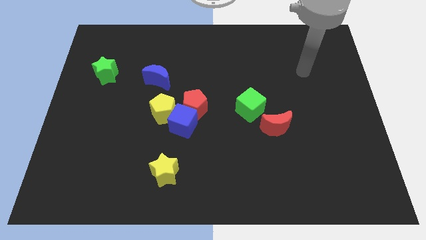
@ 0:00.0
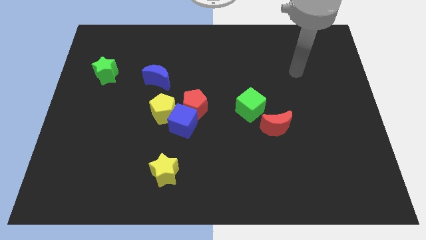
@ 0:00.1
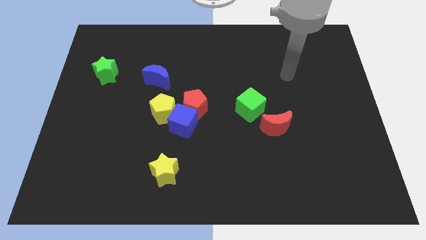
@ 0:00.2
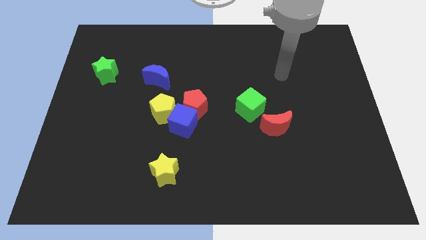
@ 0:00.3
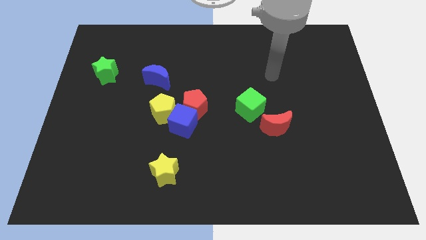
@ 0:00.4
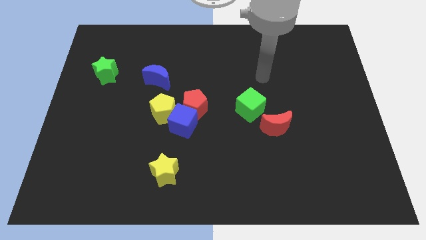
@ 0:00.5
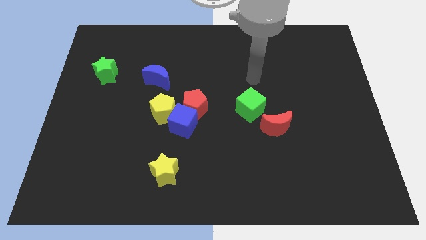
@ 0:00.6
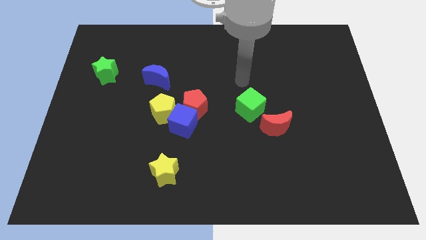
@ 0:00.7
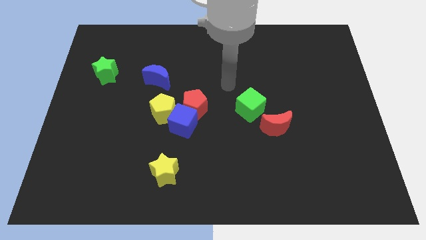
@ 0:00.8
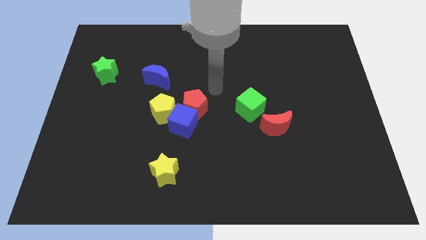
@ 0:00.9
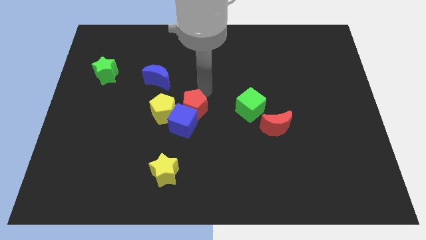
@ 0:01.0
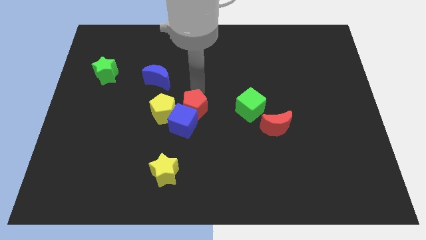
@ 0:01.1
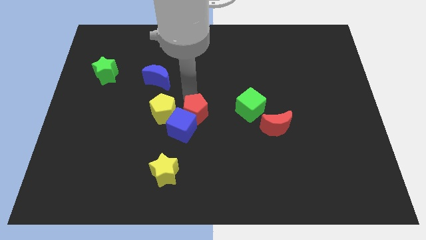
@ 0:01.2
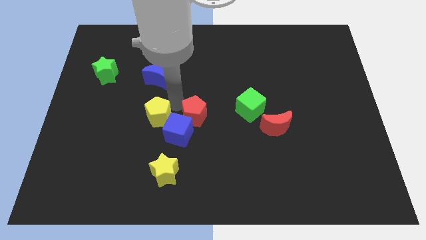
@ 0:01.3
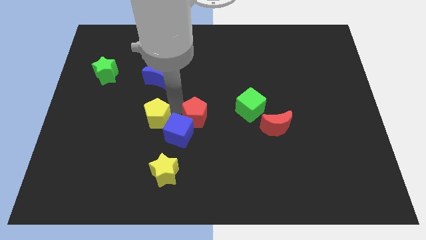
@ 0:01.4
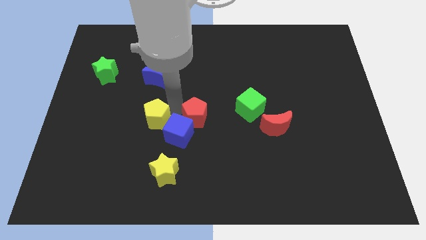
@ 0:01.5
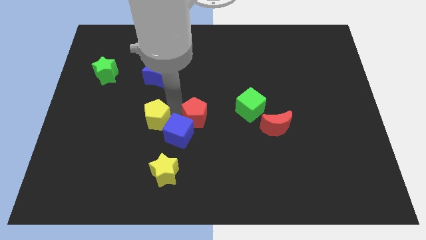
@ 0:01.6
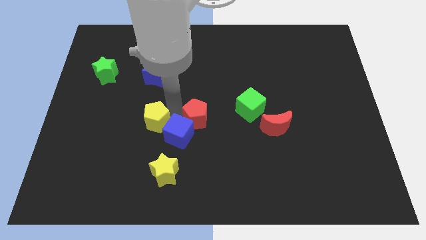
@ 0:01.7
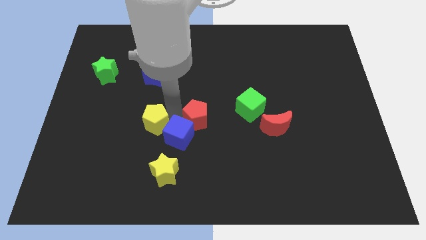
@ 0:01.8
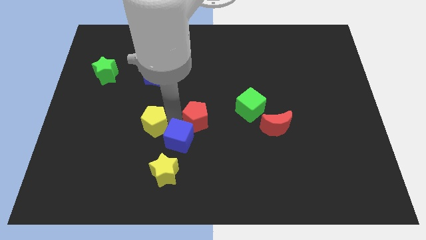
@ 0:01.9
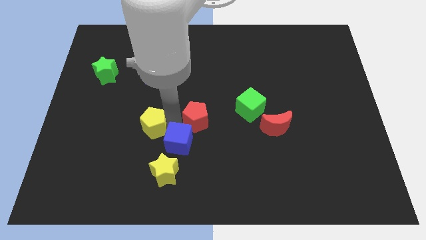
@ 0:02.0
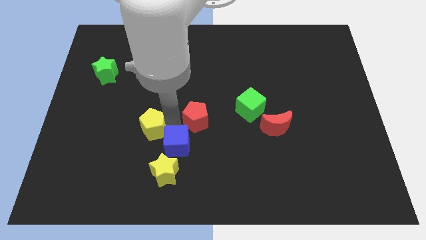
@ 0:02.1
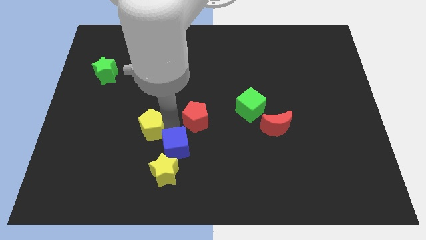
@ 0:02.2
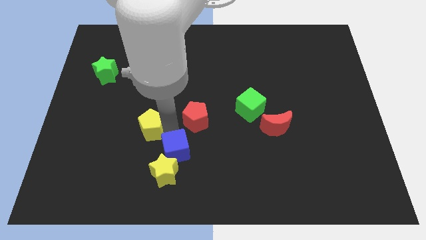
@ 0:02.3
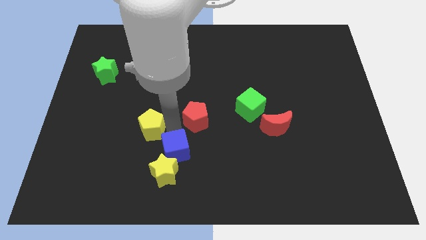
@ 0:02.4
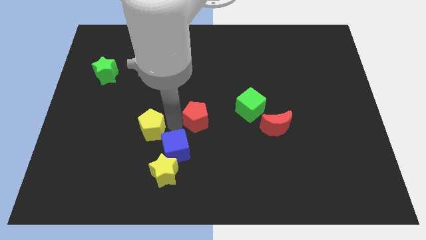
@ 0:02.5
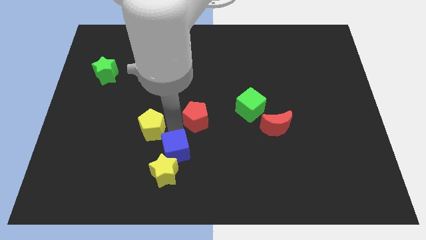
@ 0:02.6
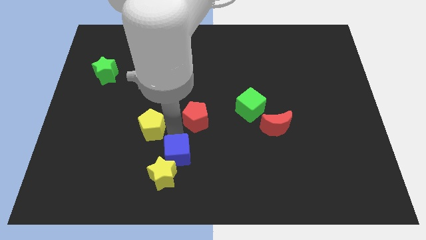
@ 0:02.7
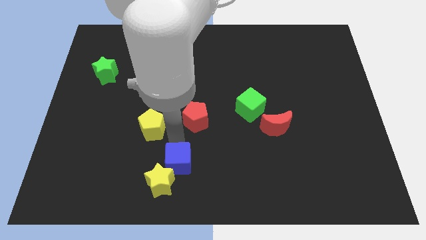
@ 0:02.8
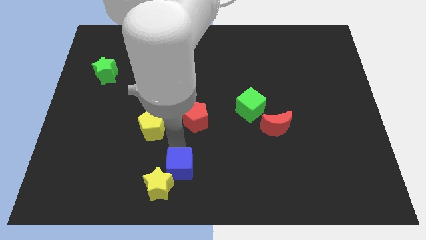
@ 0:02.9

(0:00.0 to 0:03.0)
pull the blue cube apart from the red pentagon and yellow pentagon

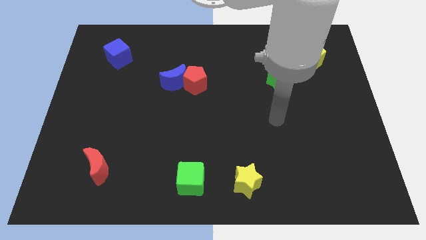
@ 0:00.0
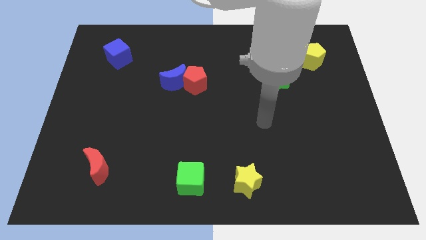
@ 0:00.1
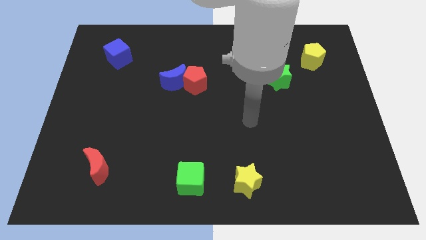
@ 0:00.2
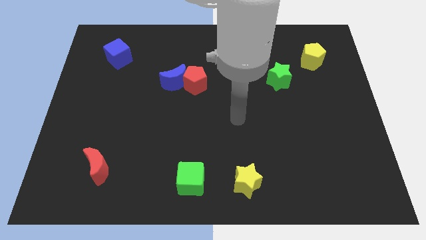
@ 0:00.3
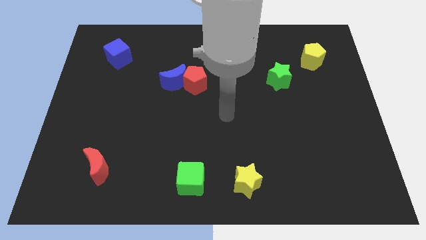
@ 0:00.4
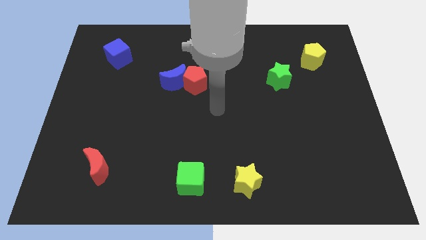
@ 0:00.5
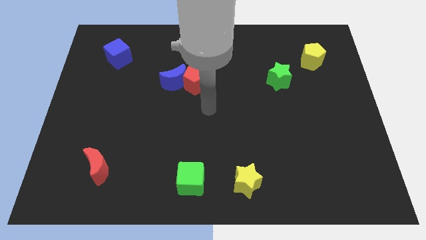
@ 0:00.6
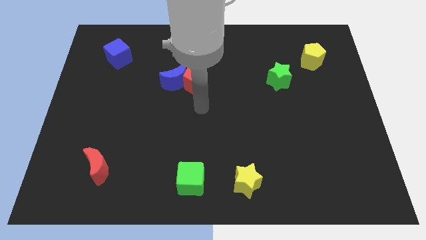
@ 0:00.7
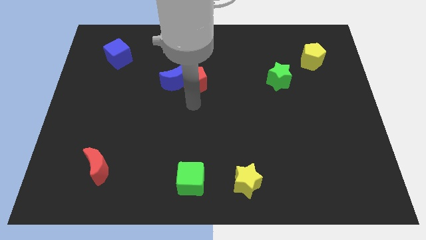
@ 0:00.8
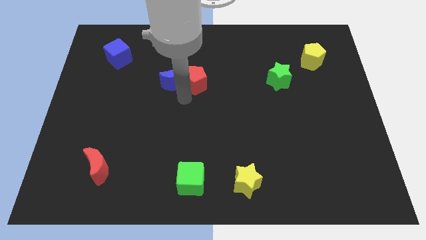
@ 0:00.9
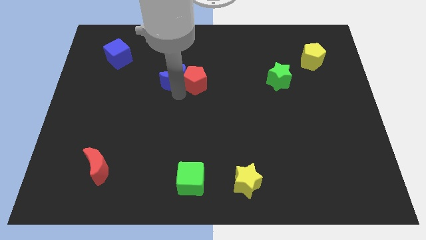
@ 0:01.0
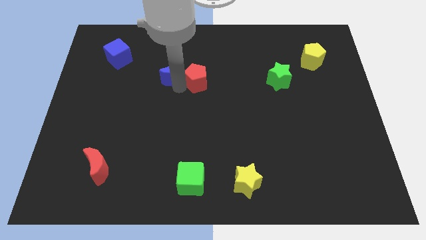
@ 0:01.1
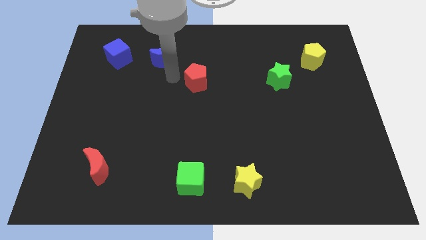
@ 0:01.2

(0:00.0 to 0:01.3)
separate the red pentagon from the blue moon

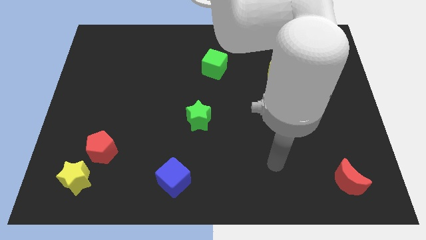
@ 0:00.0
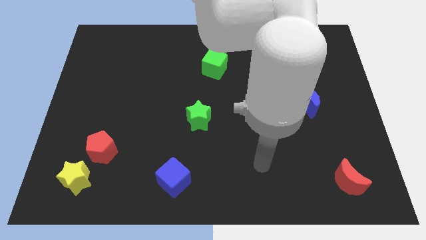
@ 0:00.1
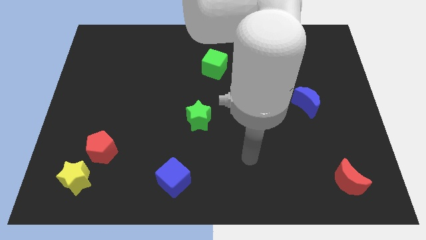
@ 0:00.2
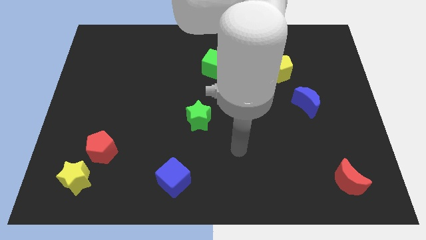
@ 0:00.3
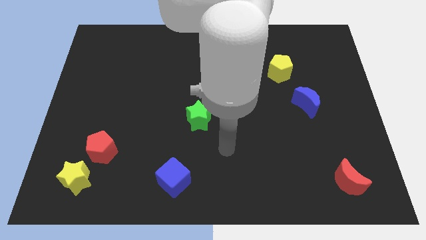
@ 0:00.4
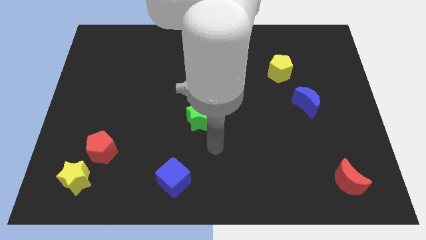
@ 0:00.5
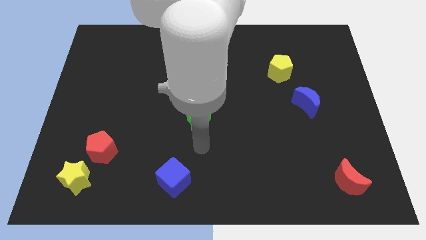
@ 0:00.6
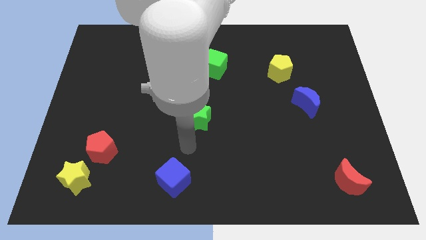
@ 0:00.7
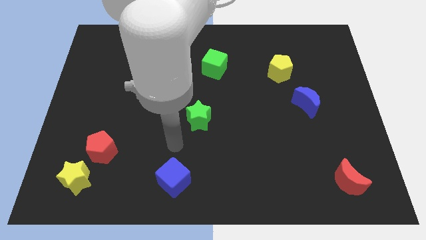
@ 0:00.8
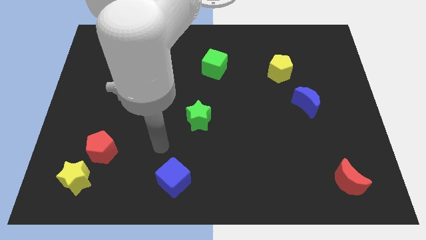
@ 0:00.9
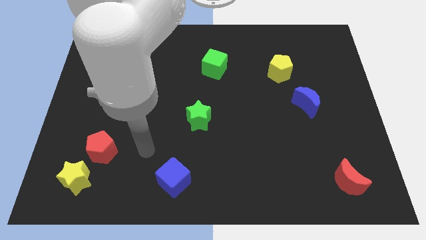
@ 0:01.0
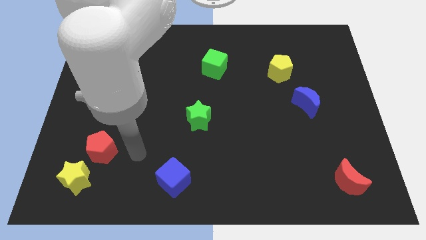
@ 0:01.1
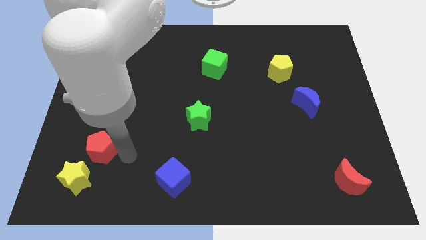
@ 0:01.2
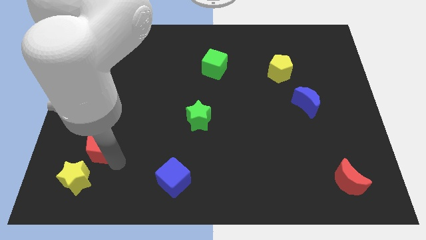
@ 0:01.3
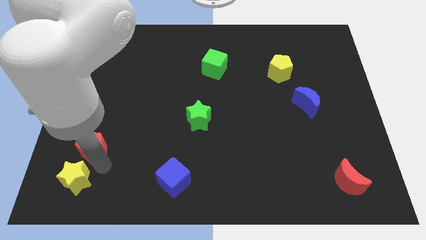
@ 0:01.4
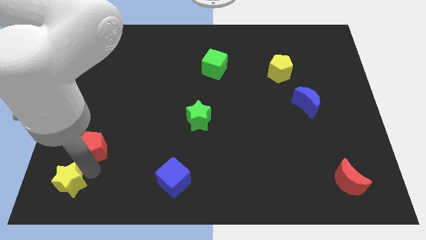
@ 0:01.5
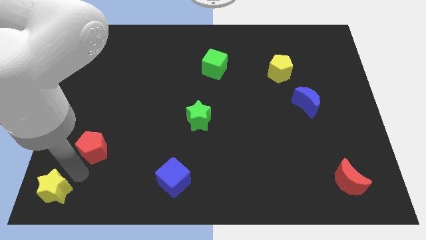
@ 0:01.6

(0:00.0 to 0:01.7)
move the red pentagon away from the yellow star

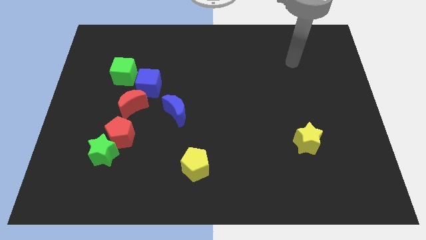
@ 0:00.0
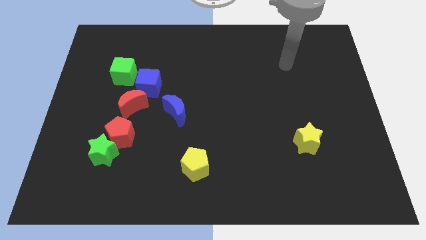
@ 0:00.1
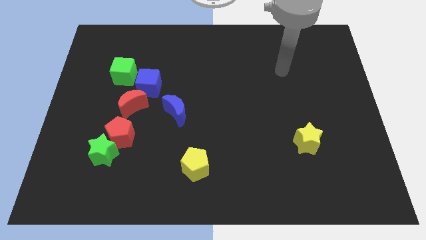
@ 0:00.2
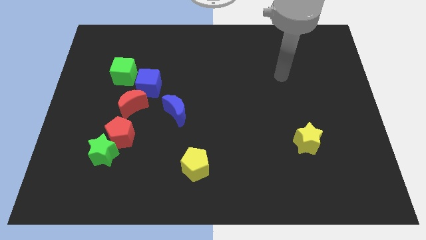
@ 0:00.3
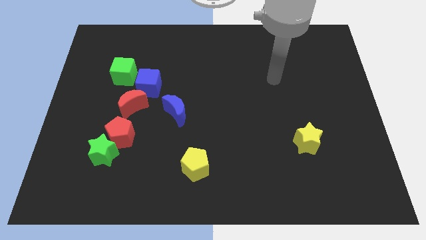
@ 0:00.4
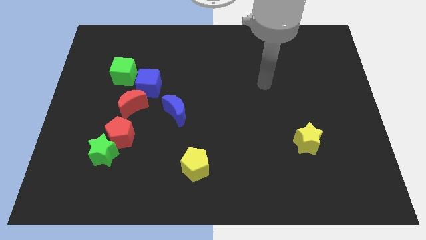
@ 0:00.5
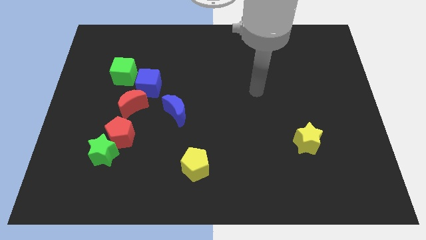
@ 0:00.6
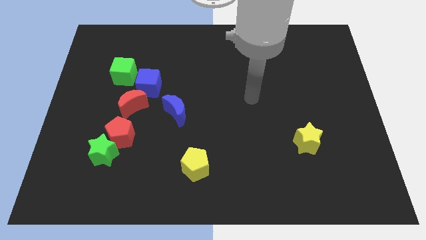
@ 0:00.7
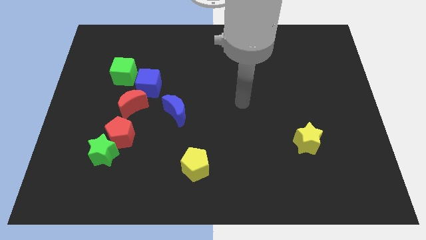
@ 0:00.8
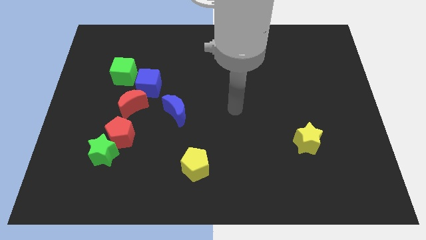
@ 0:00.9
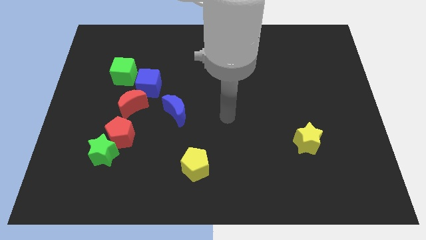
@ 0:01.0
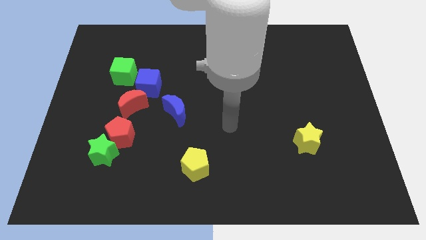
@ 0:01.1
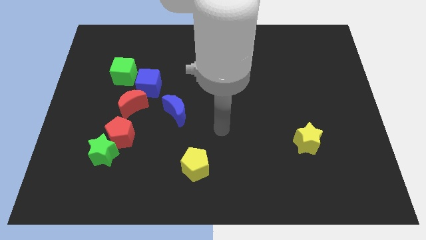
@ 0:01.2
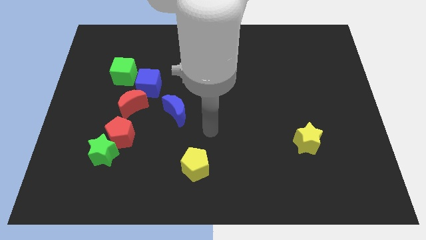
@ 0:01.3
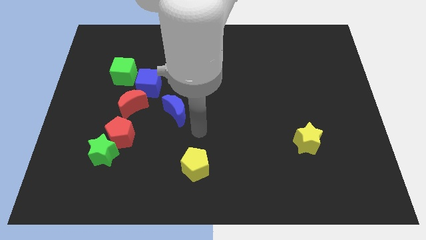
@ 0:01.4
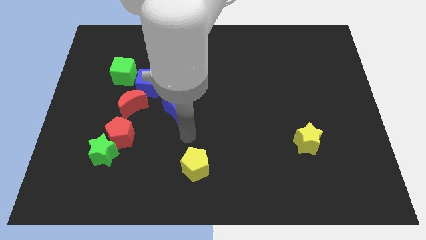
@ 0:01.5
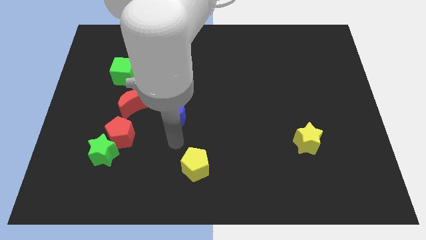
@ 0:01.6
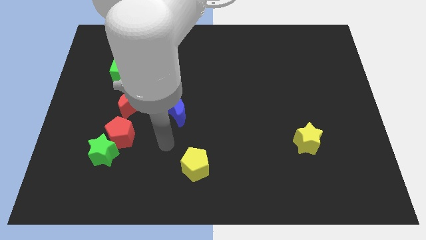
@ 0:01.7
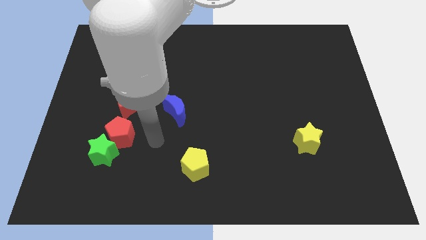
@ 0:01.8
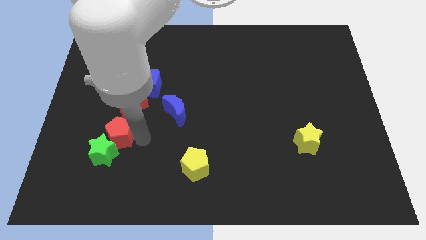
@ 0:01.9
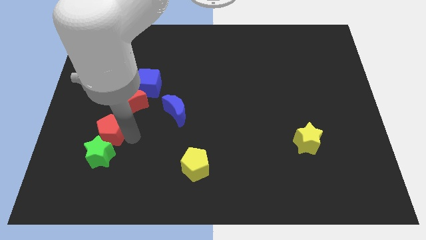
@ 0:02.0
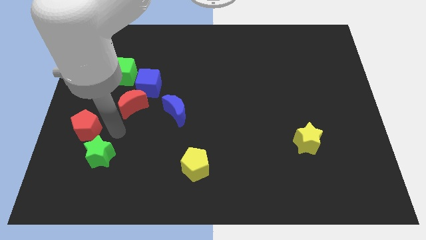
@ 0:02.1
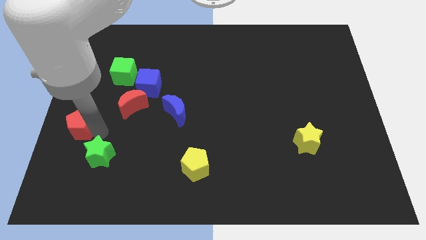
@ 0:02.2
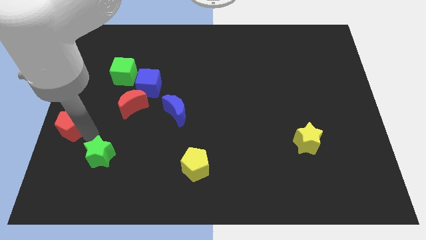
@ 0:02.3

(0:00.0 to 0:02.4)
pull the green star apart from the red pentagon

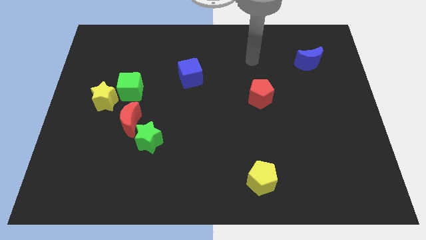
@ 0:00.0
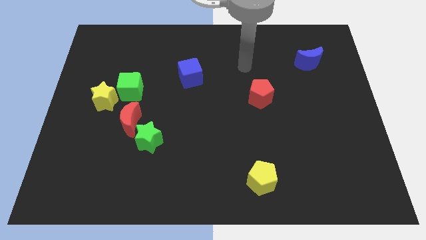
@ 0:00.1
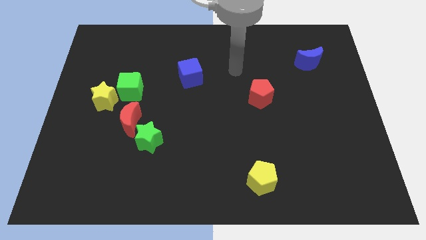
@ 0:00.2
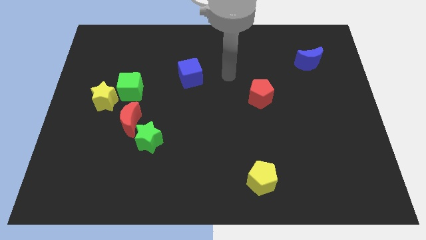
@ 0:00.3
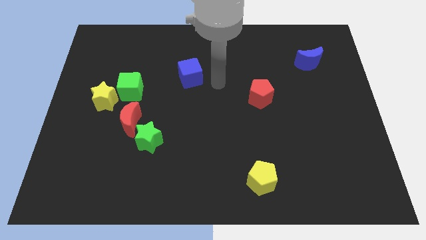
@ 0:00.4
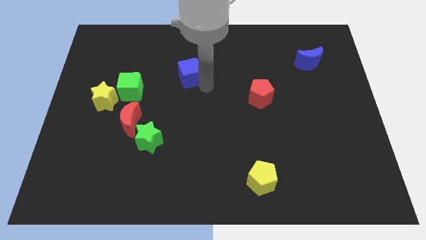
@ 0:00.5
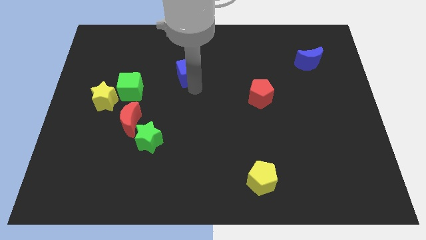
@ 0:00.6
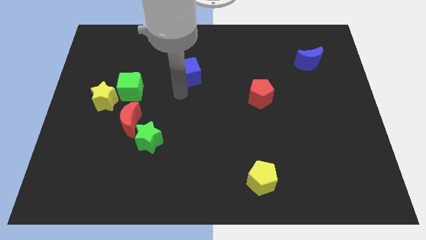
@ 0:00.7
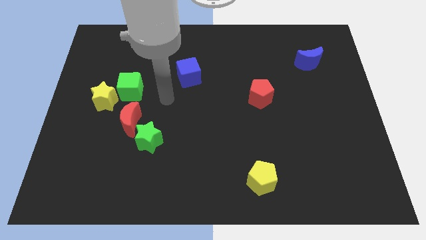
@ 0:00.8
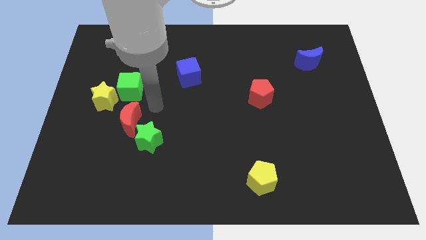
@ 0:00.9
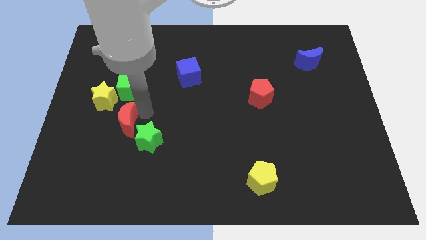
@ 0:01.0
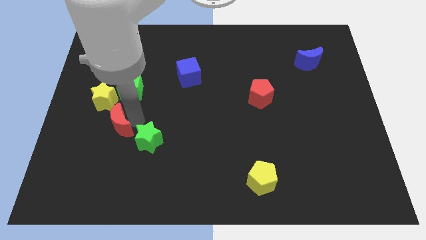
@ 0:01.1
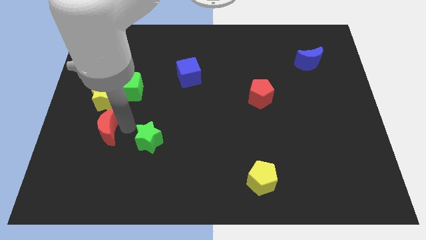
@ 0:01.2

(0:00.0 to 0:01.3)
pull the green star apart from the red moon
